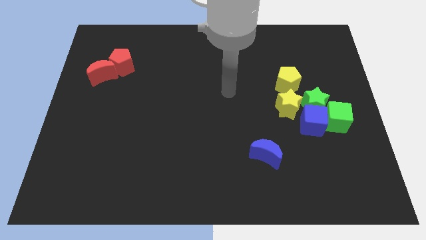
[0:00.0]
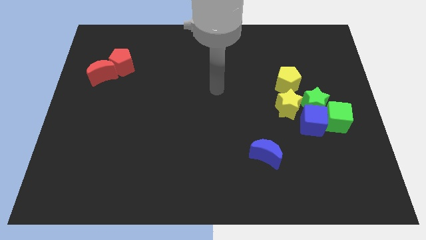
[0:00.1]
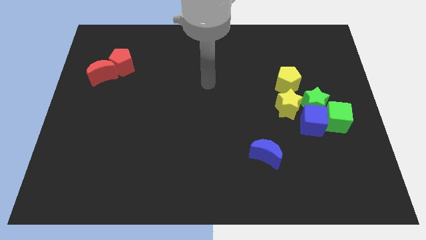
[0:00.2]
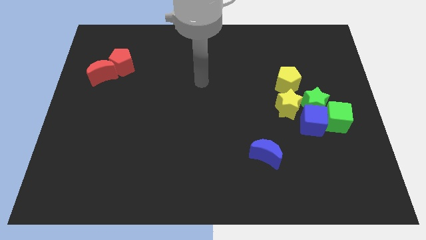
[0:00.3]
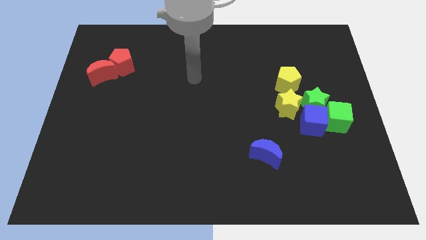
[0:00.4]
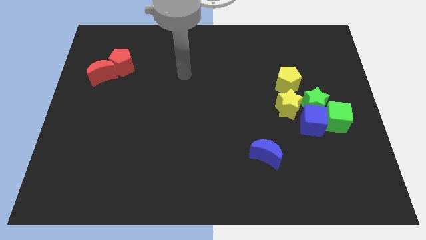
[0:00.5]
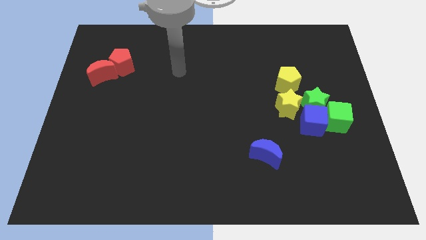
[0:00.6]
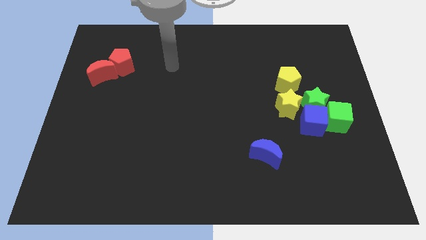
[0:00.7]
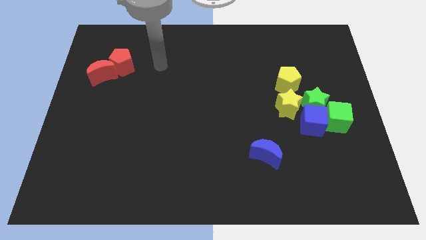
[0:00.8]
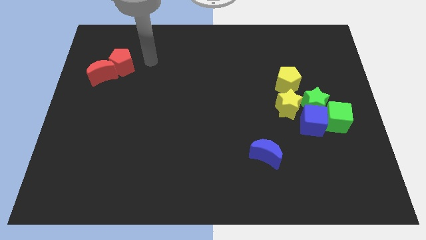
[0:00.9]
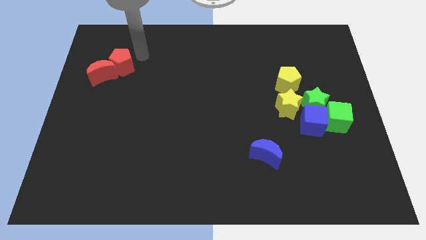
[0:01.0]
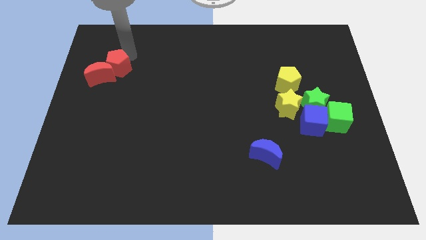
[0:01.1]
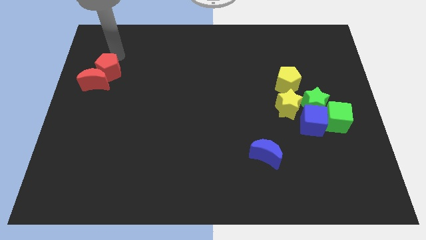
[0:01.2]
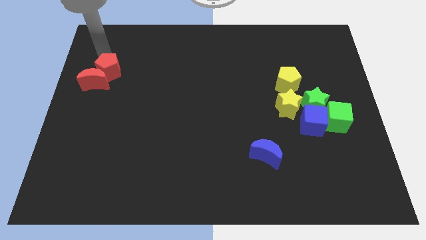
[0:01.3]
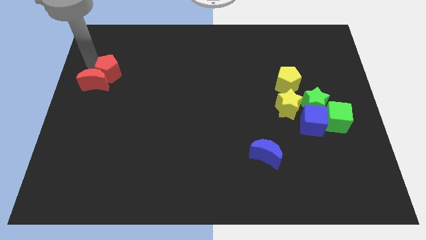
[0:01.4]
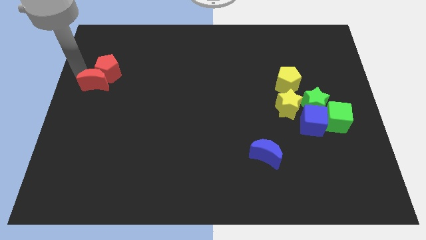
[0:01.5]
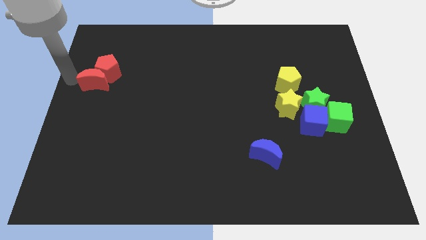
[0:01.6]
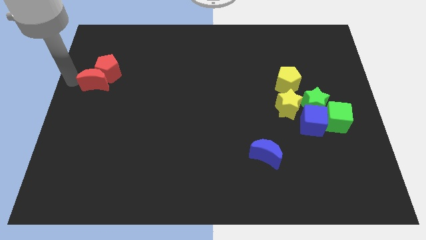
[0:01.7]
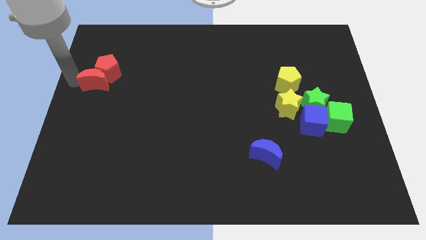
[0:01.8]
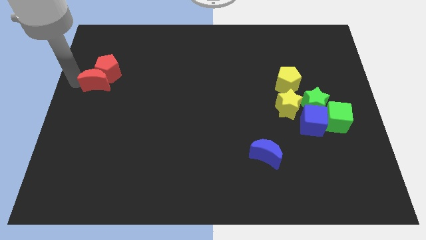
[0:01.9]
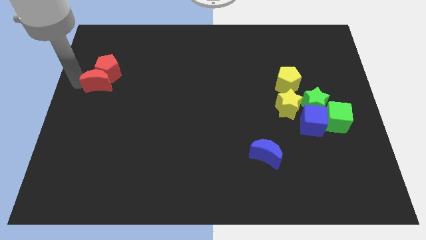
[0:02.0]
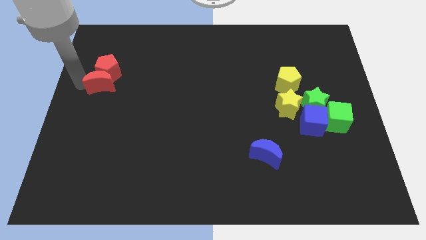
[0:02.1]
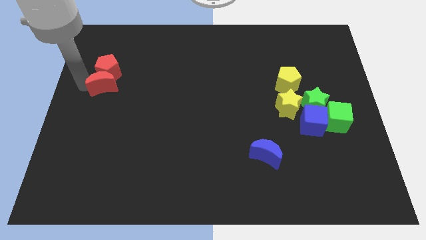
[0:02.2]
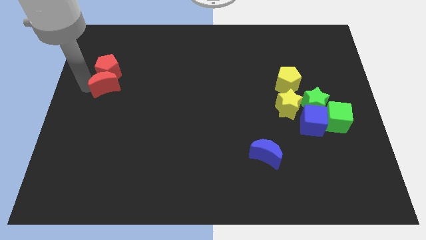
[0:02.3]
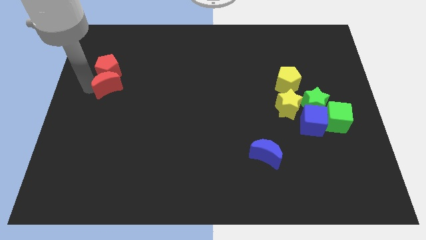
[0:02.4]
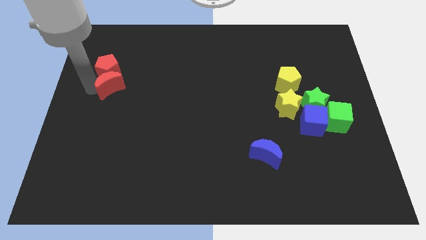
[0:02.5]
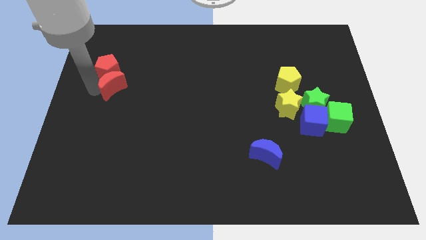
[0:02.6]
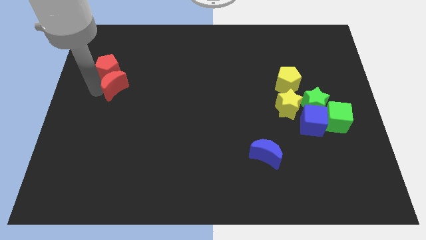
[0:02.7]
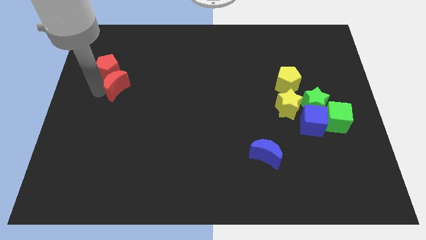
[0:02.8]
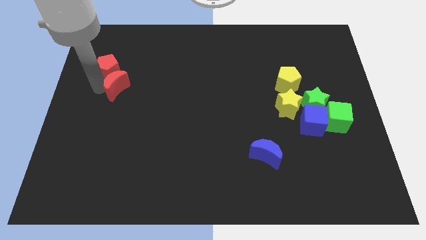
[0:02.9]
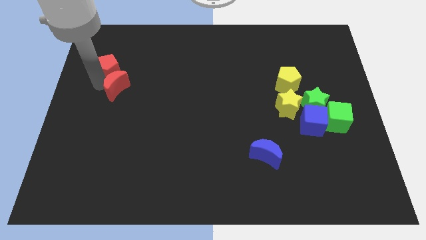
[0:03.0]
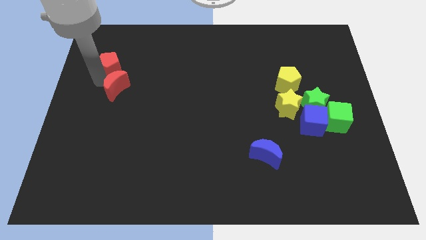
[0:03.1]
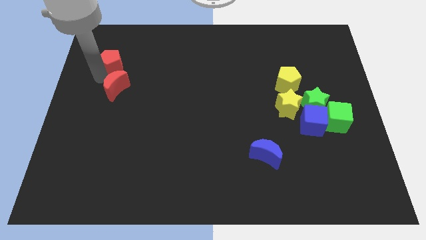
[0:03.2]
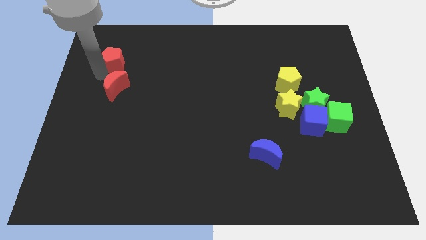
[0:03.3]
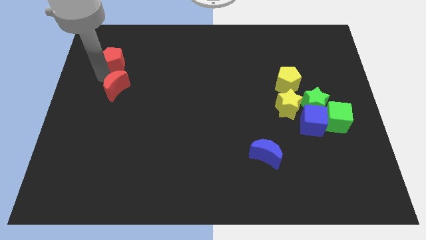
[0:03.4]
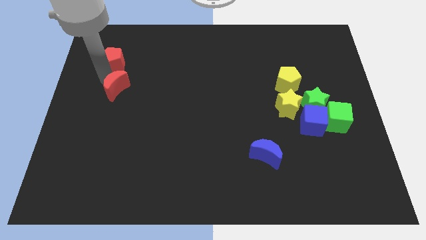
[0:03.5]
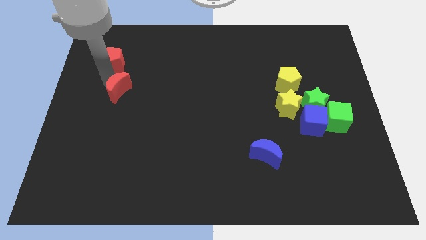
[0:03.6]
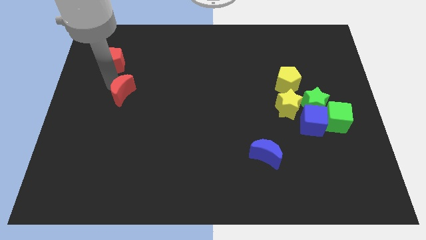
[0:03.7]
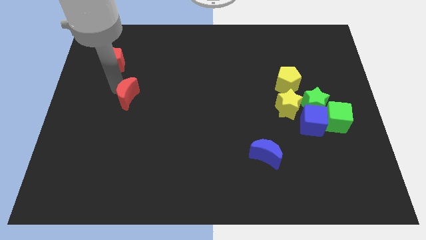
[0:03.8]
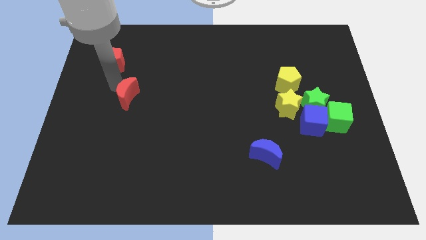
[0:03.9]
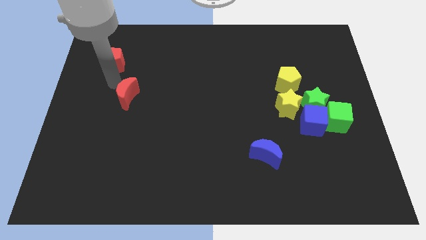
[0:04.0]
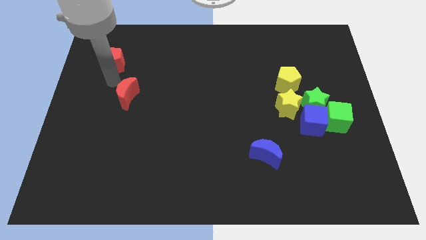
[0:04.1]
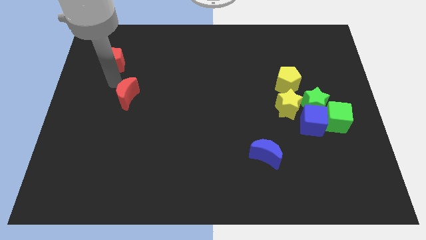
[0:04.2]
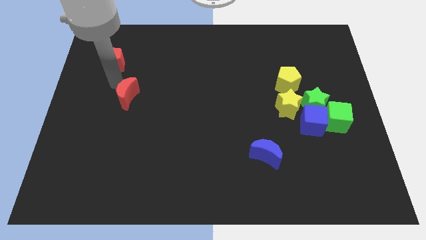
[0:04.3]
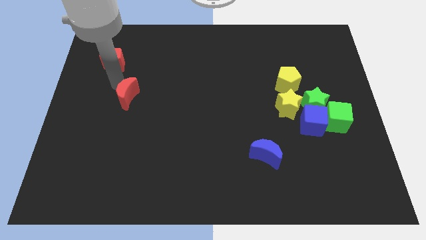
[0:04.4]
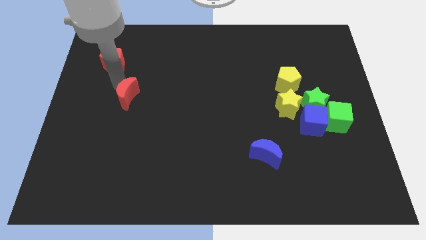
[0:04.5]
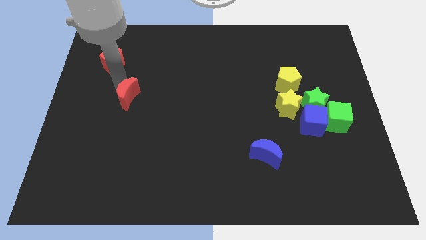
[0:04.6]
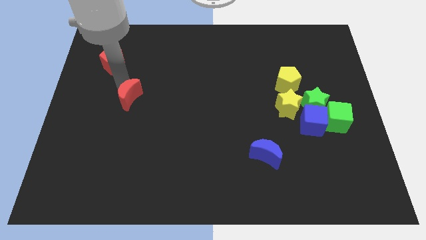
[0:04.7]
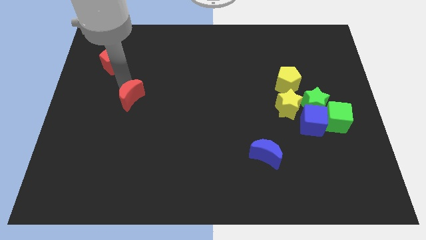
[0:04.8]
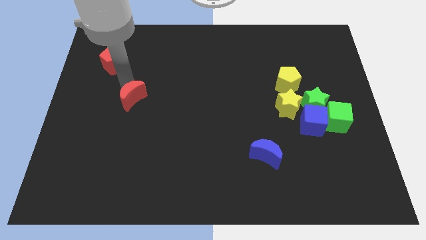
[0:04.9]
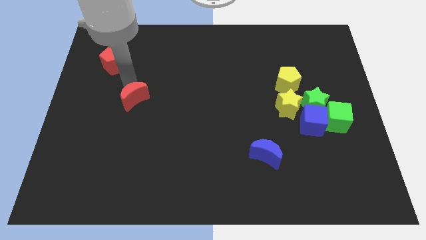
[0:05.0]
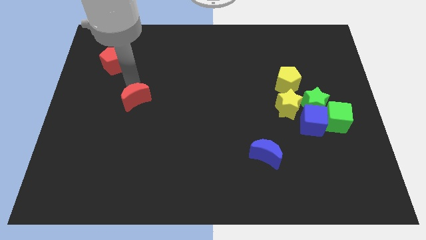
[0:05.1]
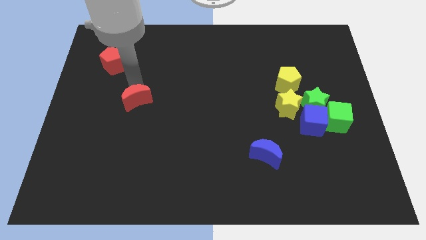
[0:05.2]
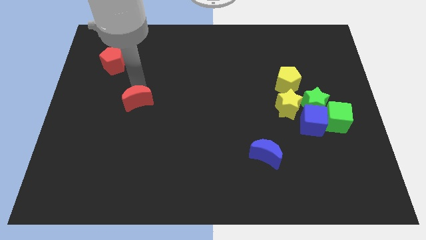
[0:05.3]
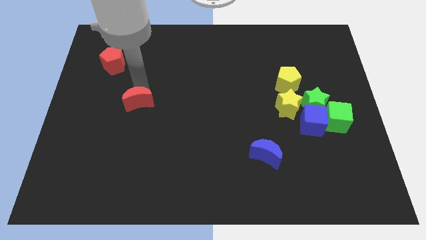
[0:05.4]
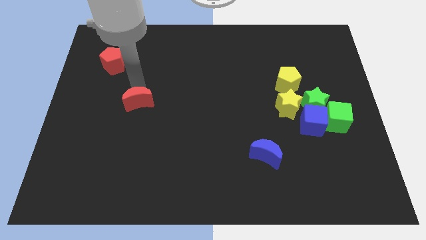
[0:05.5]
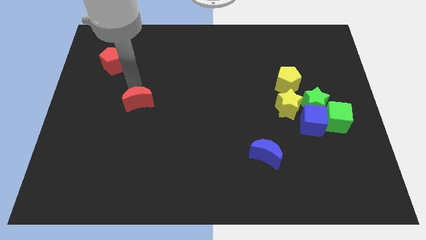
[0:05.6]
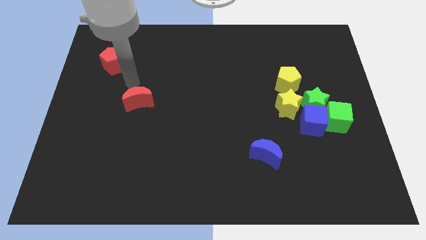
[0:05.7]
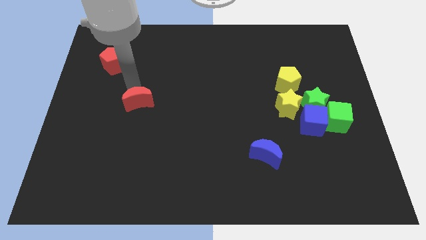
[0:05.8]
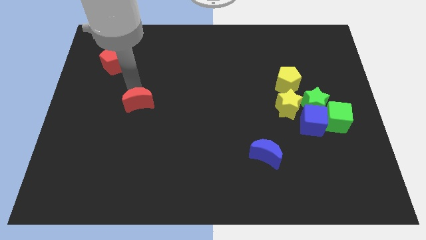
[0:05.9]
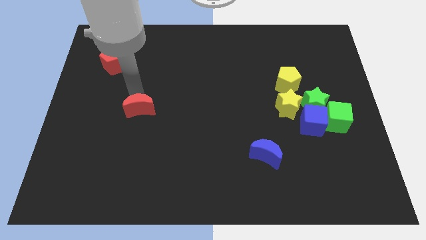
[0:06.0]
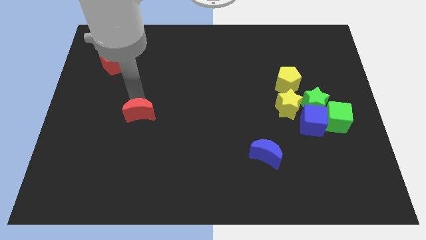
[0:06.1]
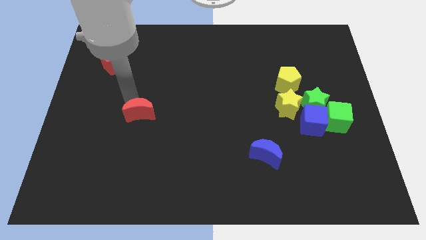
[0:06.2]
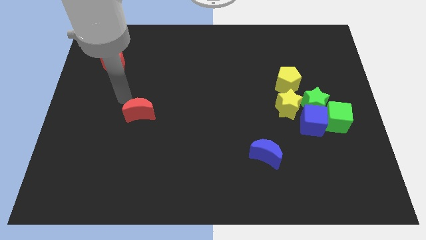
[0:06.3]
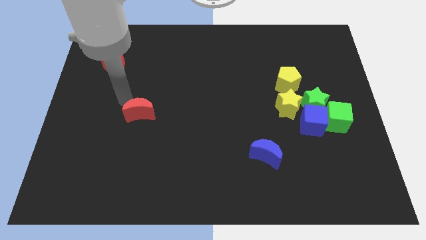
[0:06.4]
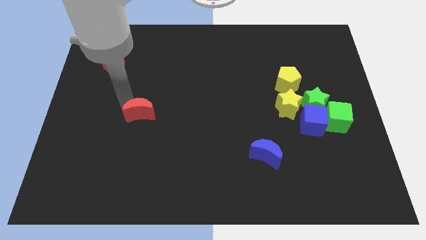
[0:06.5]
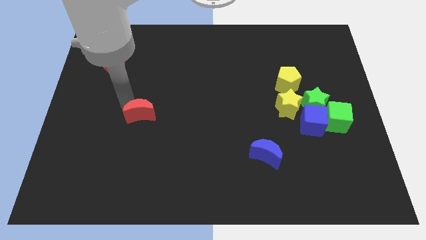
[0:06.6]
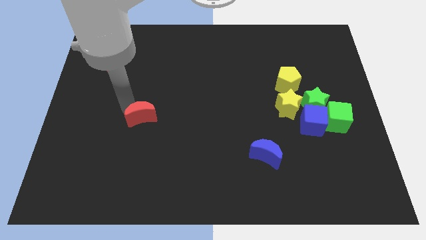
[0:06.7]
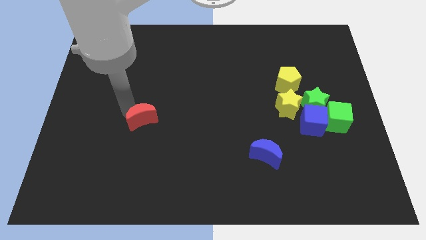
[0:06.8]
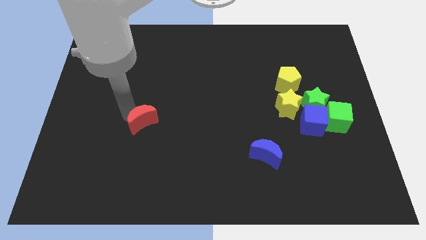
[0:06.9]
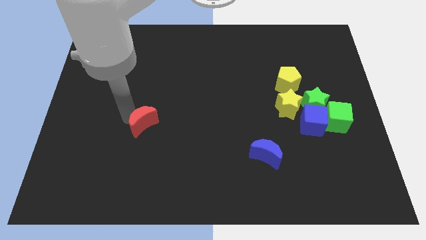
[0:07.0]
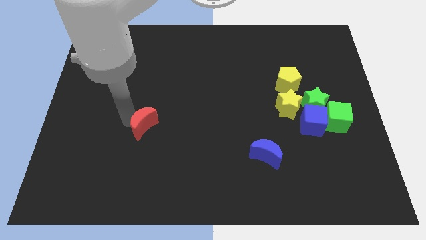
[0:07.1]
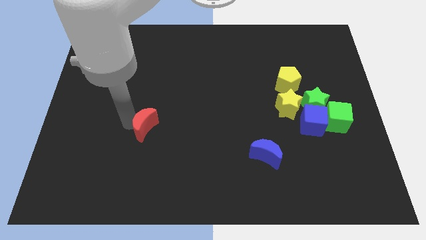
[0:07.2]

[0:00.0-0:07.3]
slide the red moon downwards and right diagonally

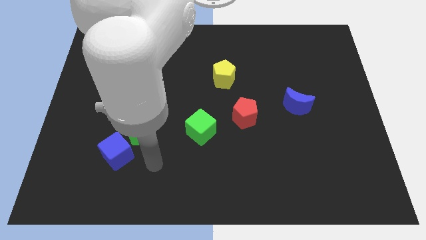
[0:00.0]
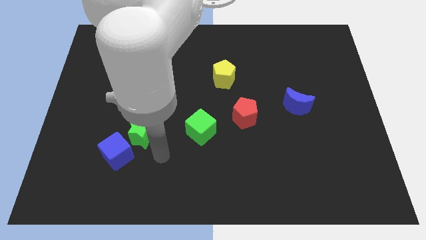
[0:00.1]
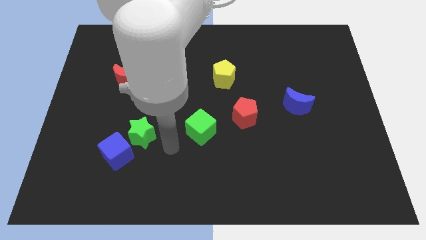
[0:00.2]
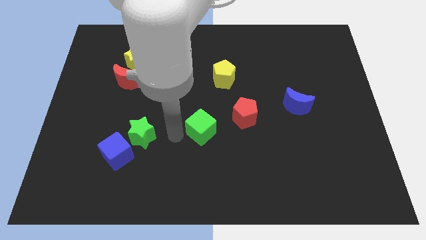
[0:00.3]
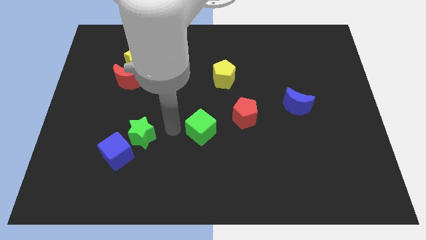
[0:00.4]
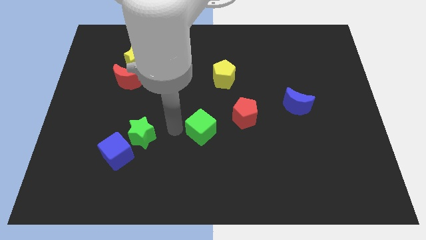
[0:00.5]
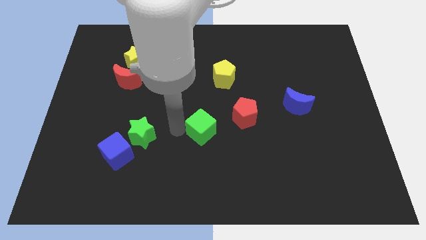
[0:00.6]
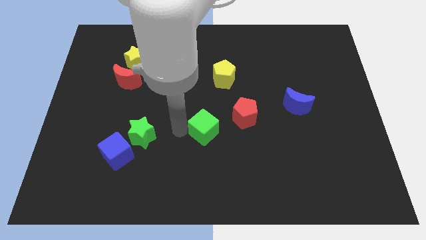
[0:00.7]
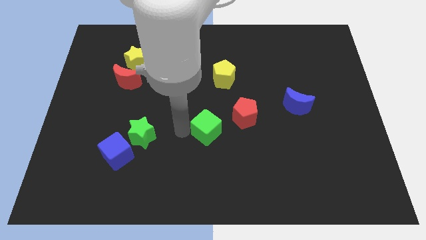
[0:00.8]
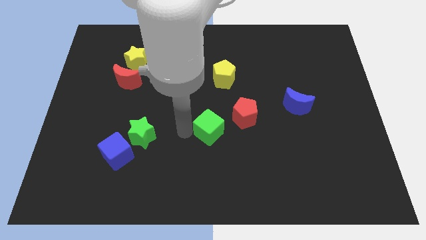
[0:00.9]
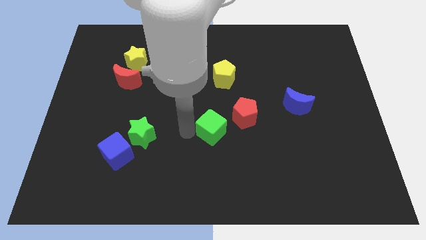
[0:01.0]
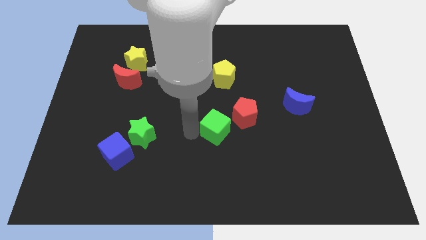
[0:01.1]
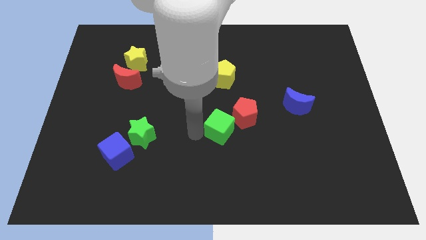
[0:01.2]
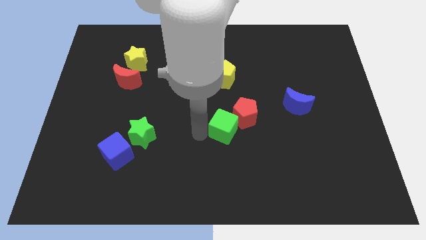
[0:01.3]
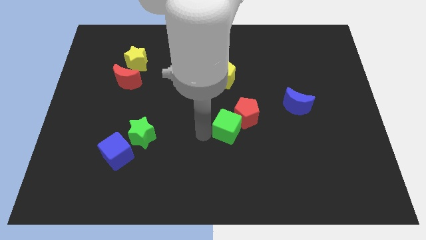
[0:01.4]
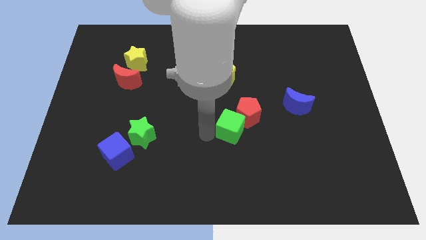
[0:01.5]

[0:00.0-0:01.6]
slightly move the green cube right
